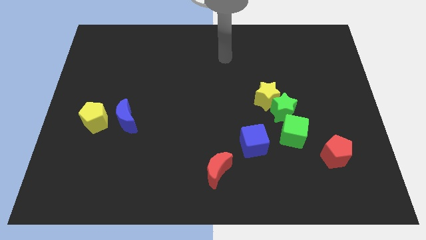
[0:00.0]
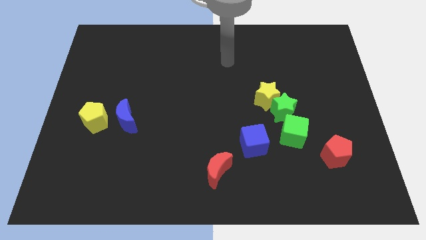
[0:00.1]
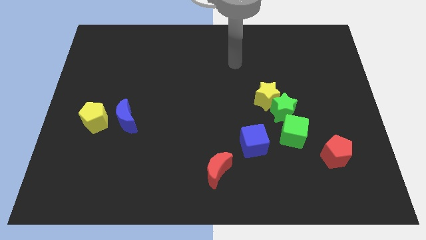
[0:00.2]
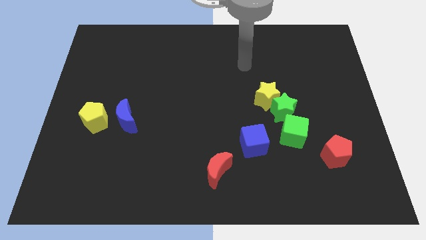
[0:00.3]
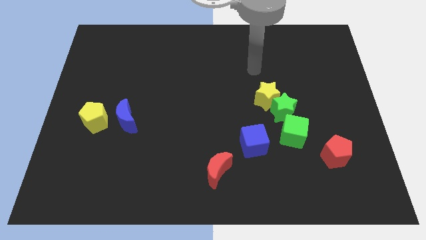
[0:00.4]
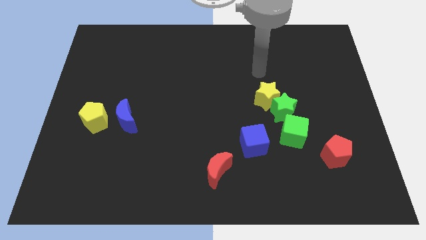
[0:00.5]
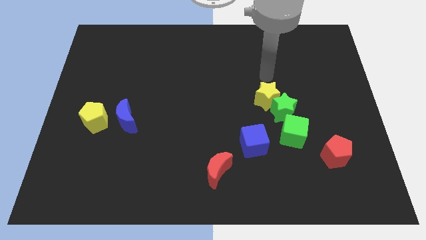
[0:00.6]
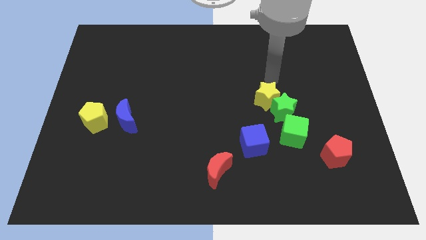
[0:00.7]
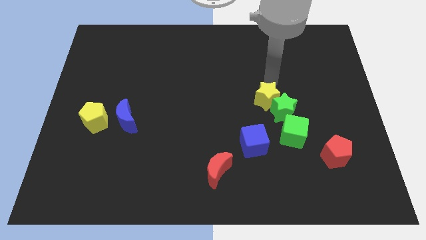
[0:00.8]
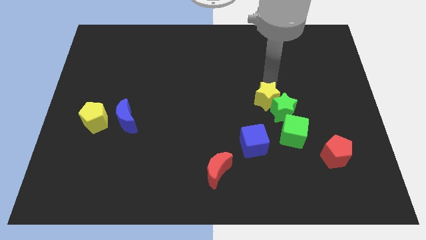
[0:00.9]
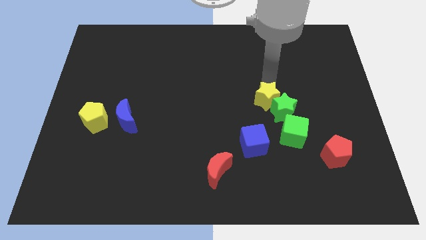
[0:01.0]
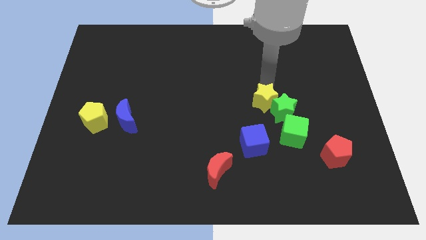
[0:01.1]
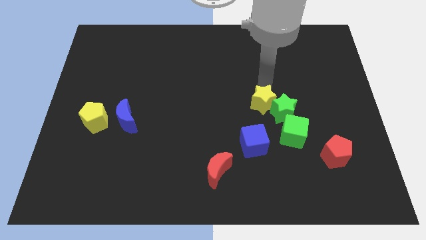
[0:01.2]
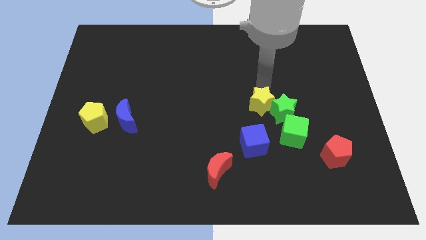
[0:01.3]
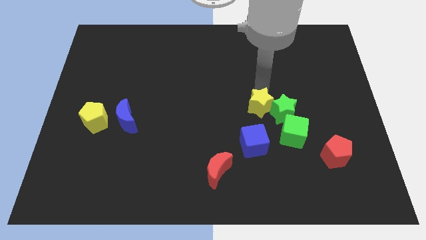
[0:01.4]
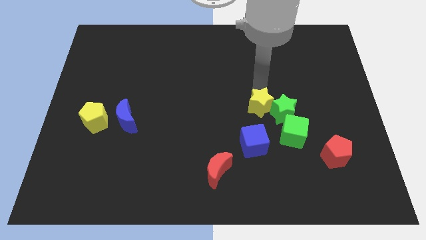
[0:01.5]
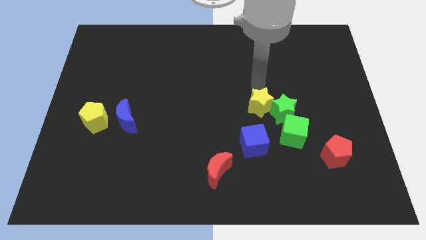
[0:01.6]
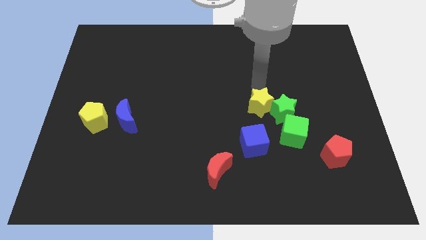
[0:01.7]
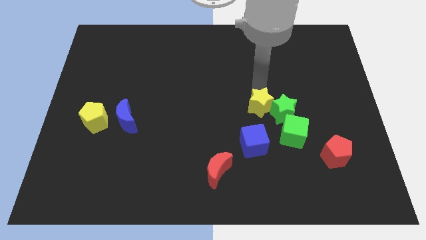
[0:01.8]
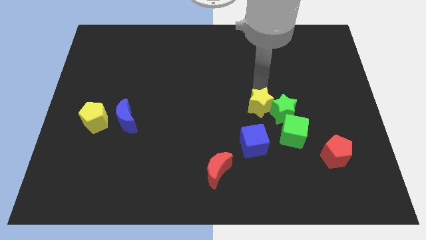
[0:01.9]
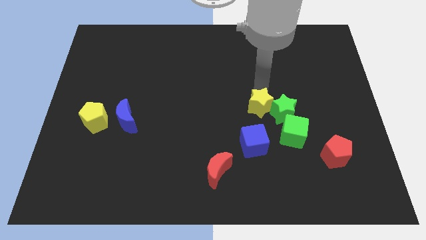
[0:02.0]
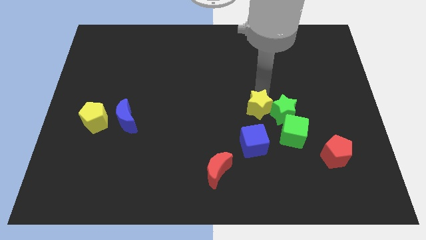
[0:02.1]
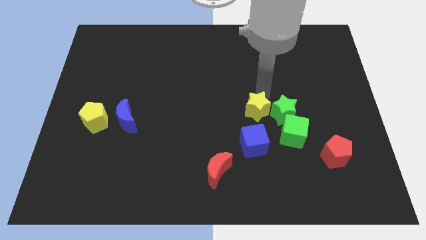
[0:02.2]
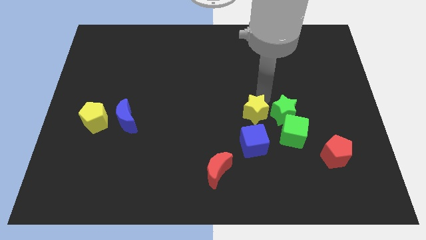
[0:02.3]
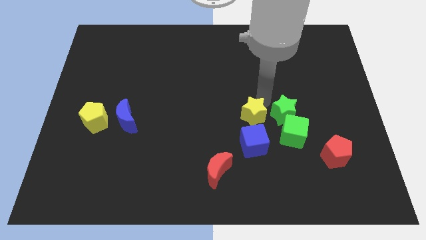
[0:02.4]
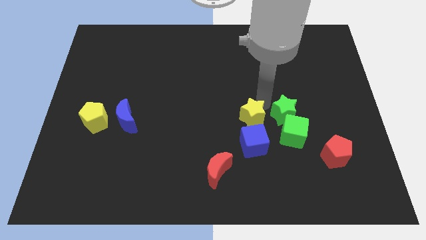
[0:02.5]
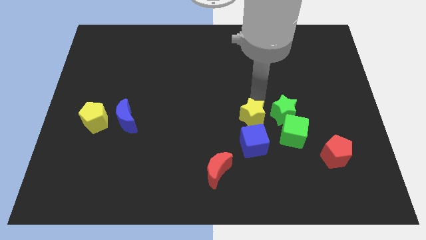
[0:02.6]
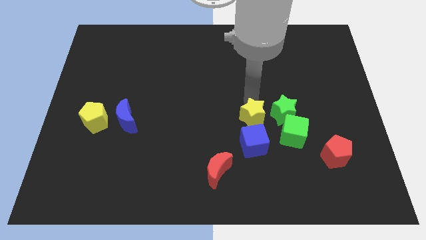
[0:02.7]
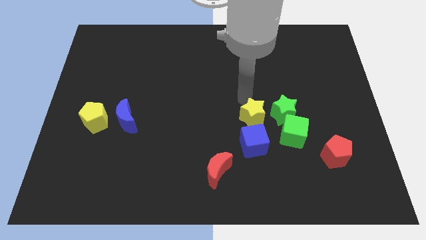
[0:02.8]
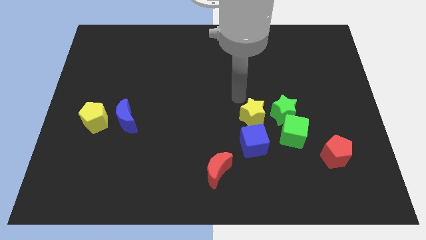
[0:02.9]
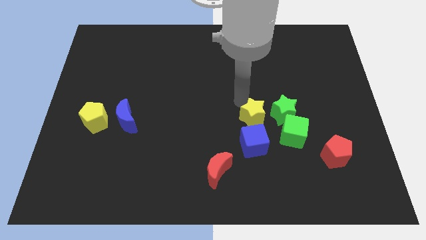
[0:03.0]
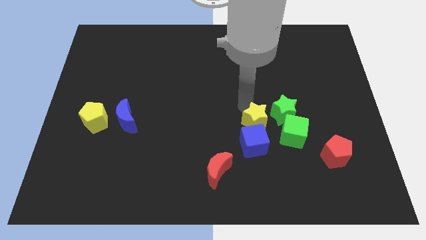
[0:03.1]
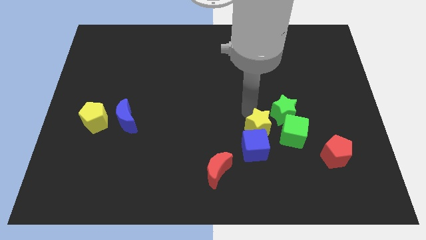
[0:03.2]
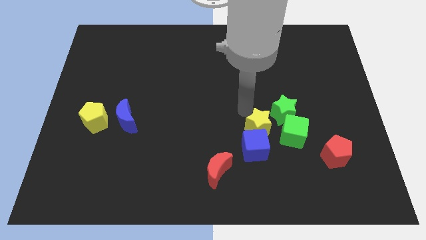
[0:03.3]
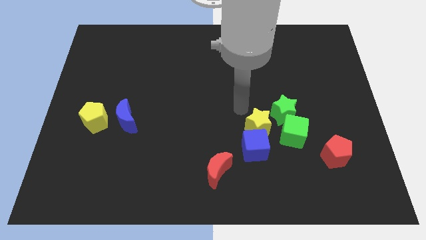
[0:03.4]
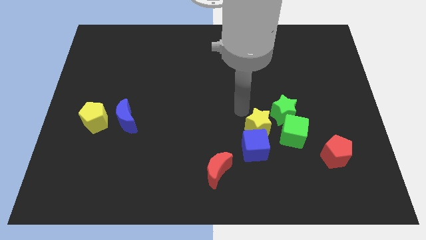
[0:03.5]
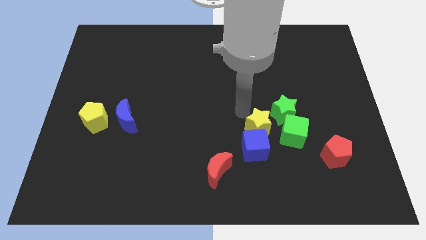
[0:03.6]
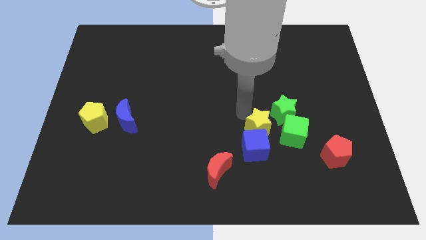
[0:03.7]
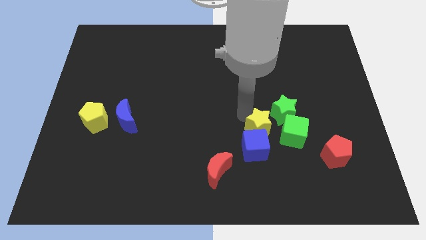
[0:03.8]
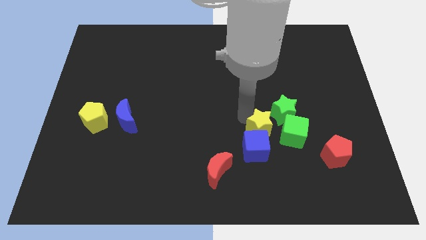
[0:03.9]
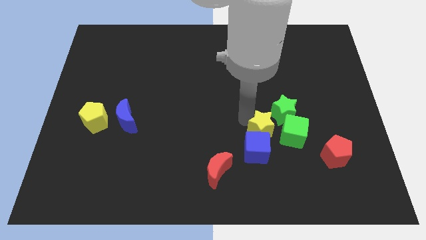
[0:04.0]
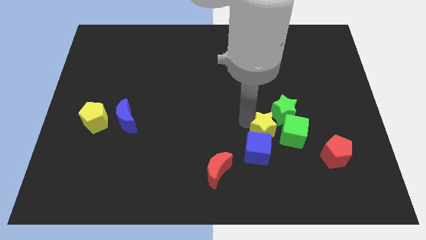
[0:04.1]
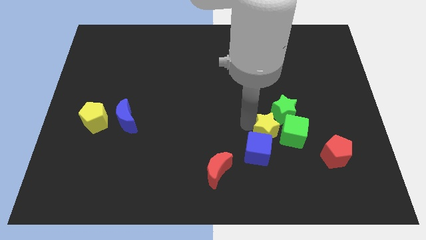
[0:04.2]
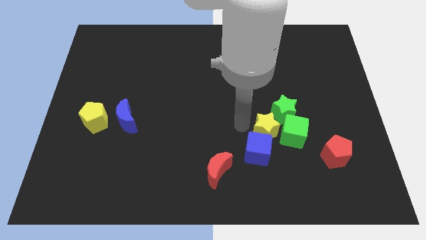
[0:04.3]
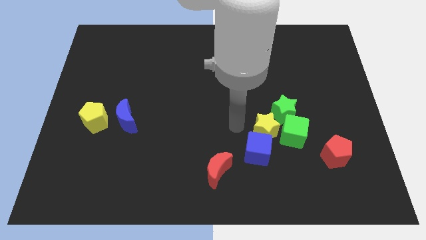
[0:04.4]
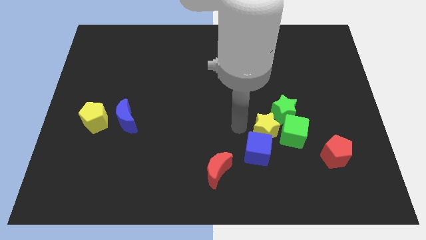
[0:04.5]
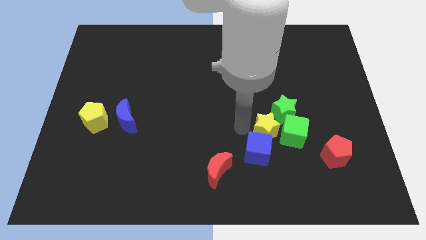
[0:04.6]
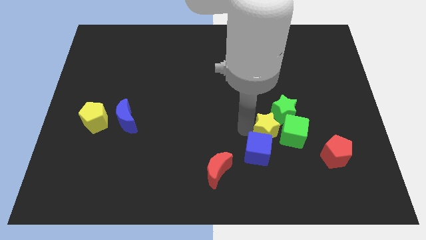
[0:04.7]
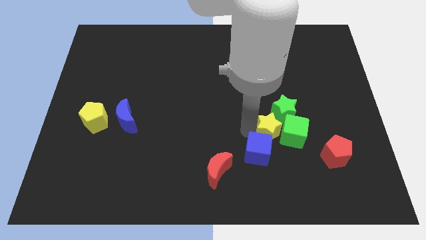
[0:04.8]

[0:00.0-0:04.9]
push the yellow star to the green cube

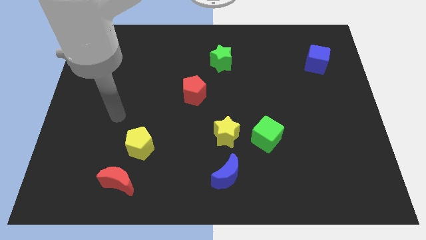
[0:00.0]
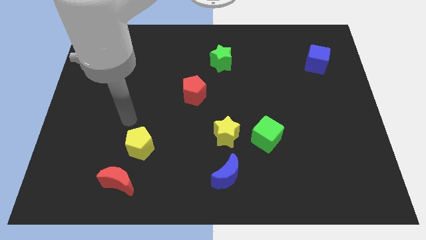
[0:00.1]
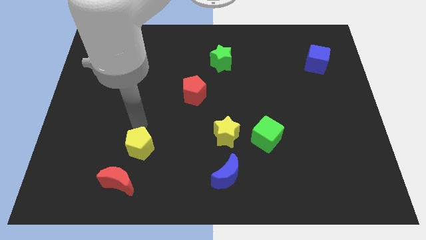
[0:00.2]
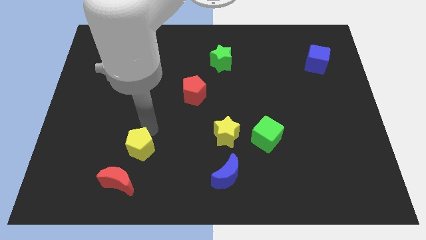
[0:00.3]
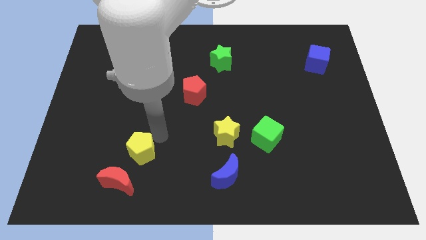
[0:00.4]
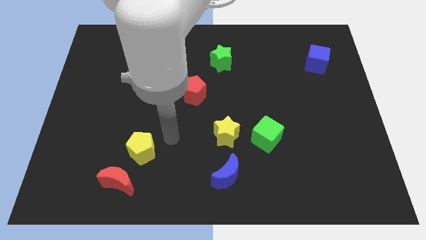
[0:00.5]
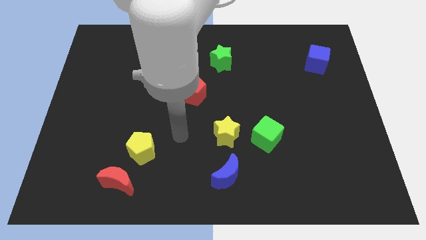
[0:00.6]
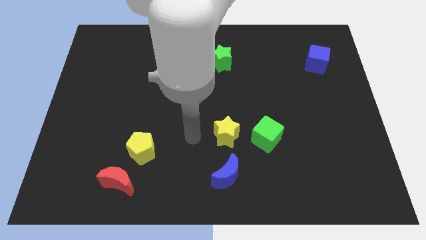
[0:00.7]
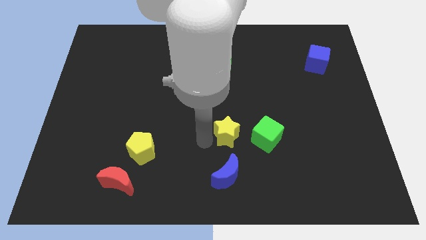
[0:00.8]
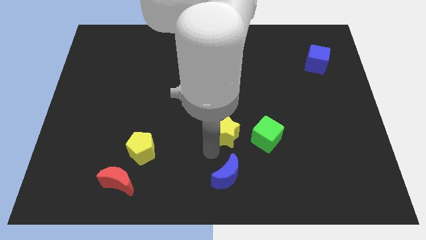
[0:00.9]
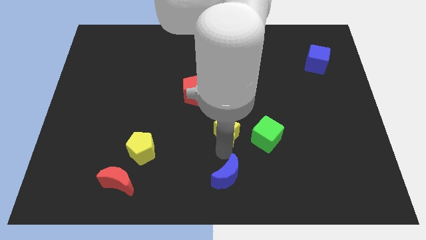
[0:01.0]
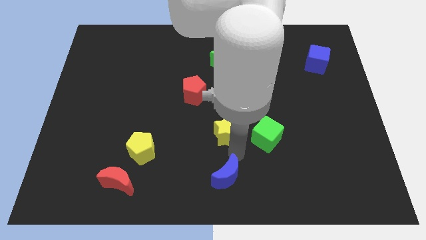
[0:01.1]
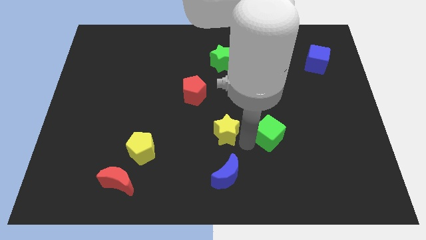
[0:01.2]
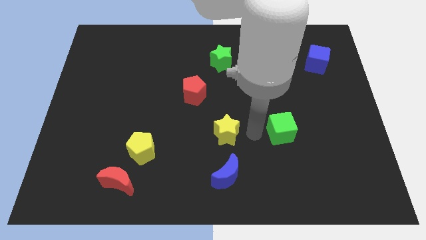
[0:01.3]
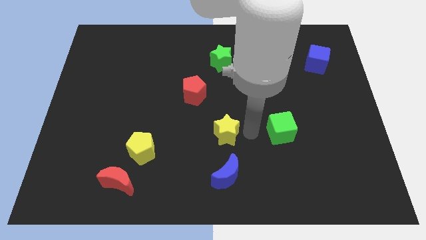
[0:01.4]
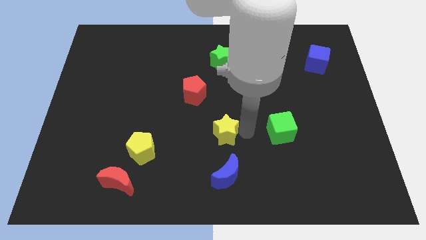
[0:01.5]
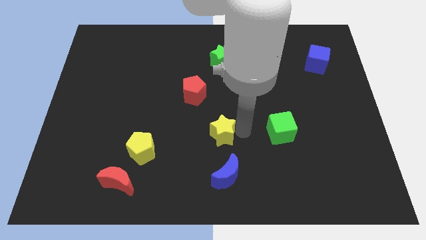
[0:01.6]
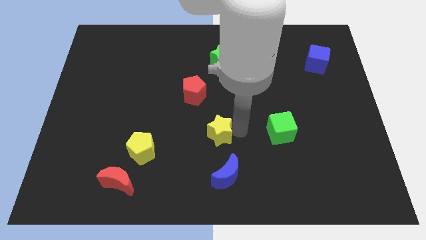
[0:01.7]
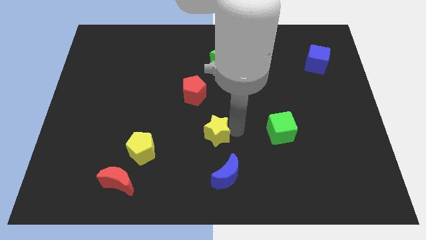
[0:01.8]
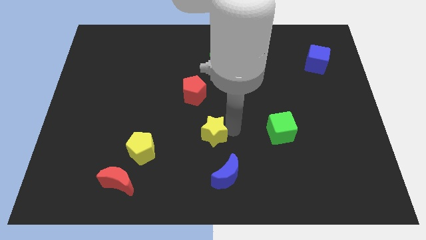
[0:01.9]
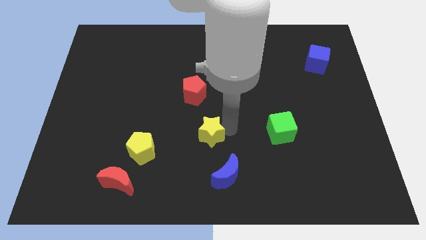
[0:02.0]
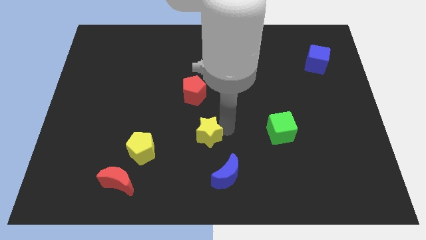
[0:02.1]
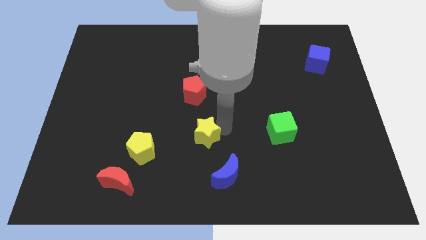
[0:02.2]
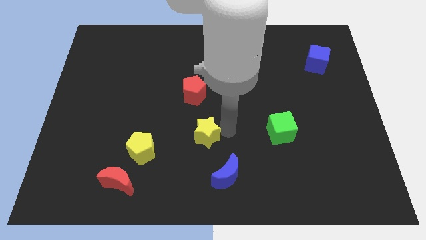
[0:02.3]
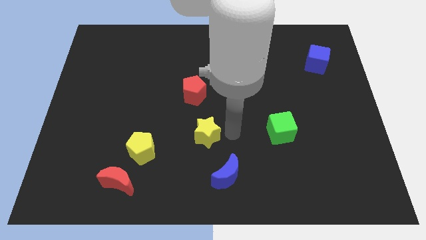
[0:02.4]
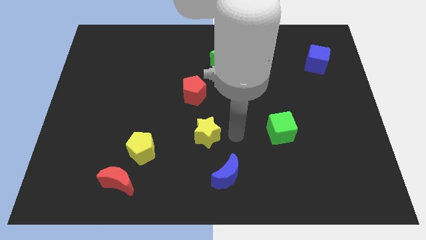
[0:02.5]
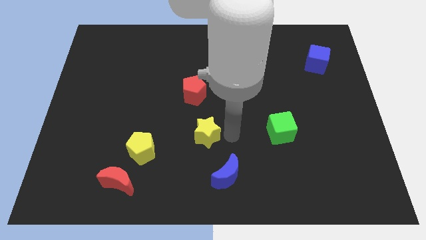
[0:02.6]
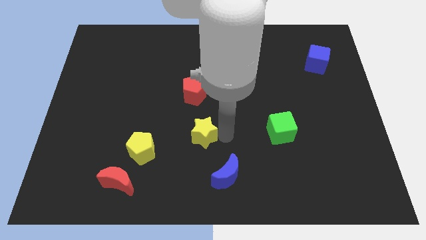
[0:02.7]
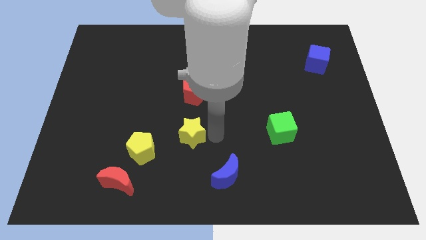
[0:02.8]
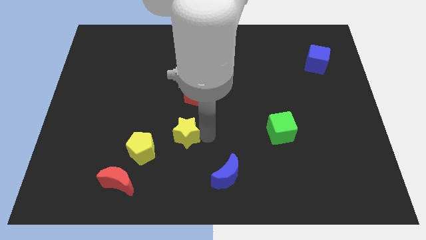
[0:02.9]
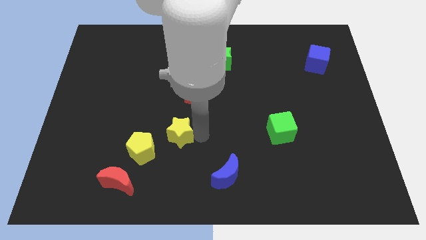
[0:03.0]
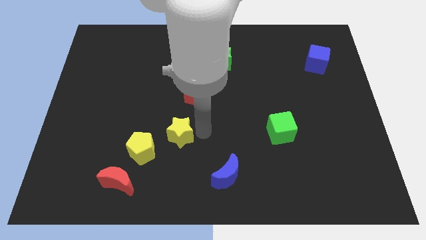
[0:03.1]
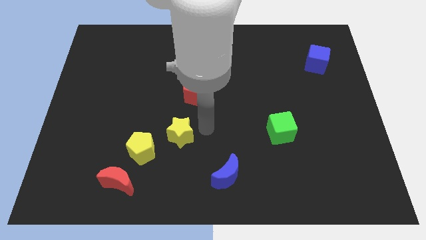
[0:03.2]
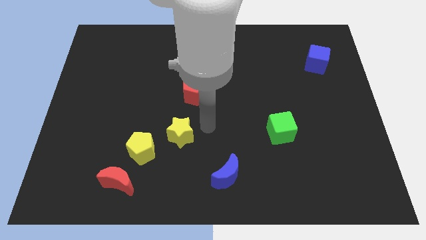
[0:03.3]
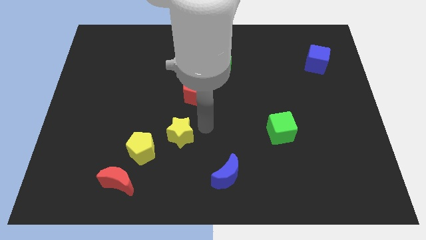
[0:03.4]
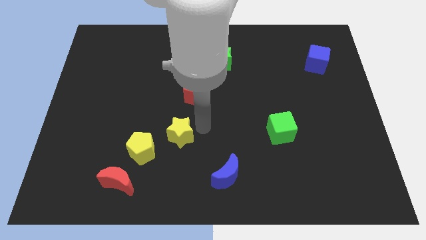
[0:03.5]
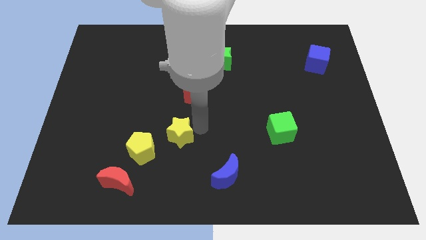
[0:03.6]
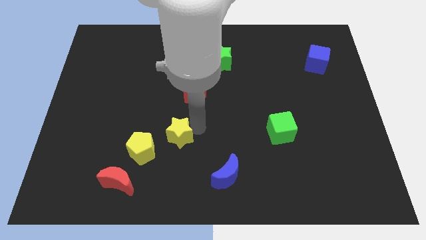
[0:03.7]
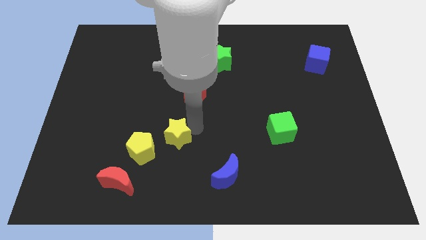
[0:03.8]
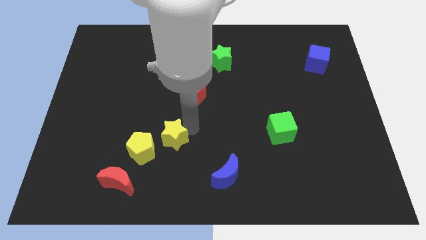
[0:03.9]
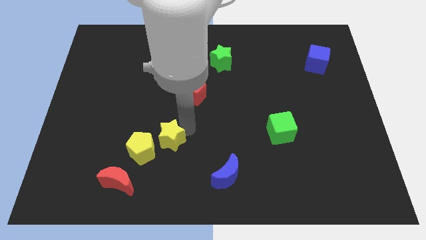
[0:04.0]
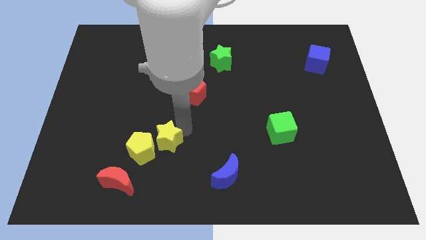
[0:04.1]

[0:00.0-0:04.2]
slide the yellow star next to the yellow pentagon
